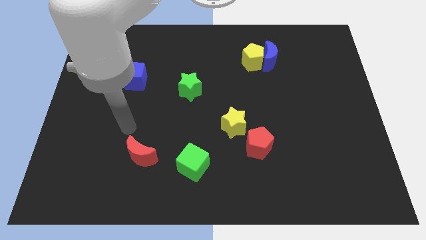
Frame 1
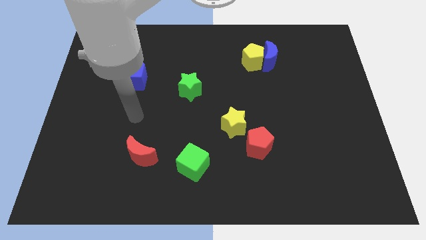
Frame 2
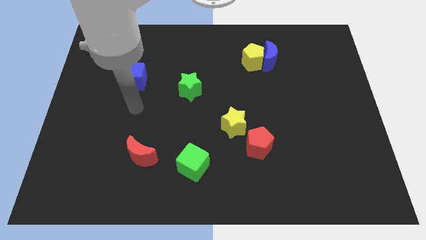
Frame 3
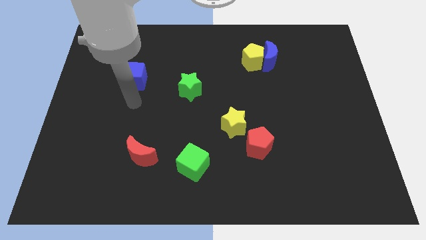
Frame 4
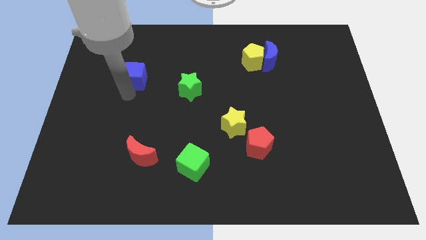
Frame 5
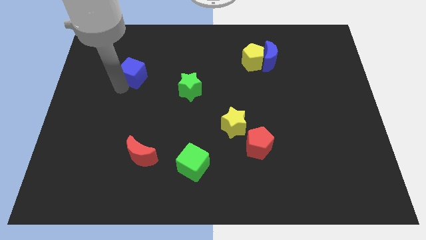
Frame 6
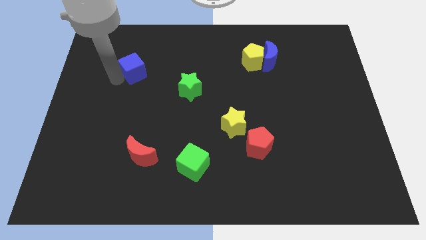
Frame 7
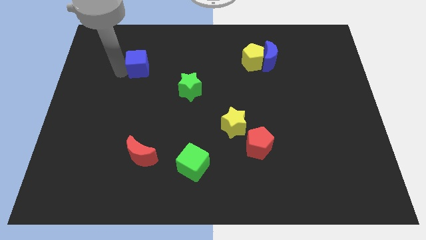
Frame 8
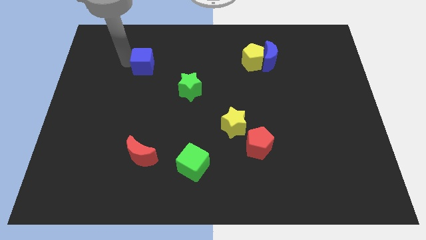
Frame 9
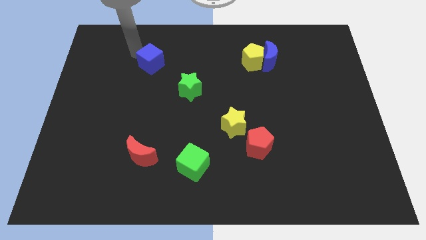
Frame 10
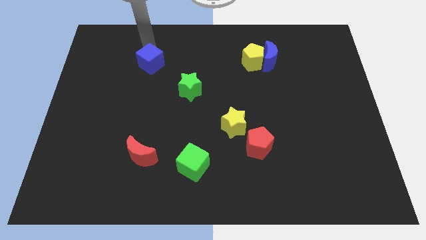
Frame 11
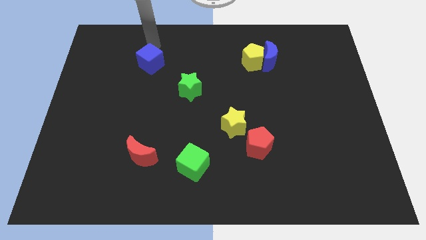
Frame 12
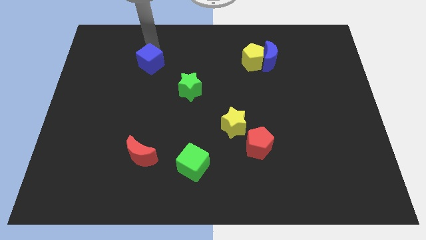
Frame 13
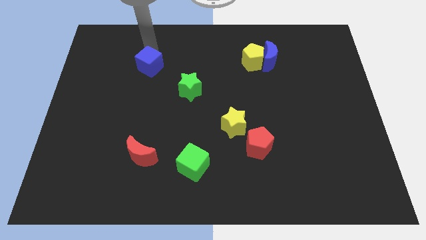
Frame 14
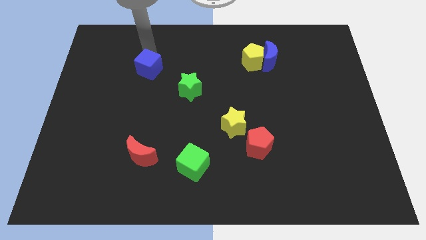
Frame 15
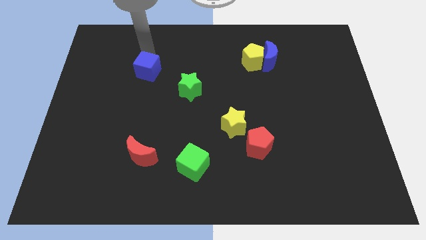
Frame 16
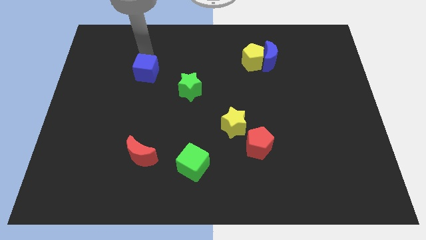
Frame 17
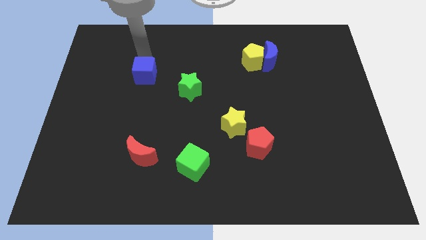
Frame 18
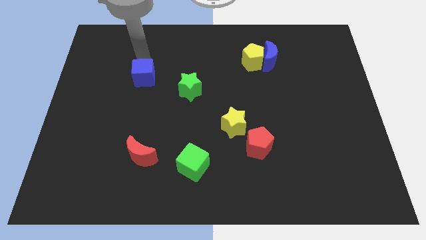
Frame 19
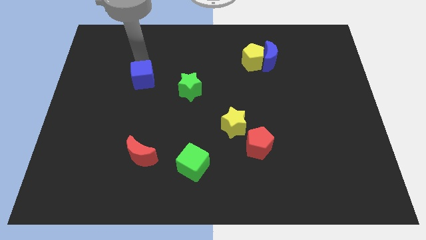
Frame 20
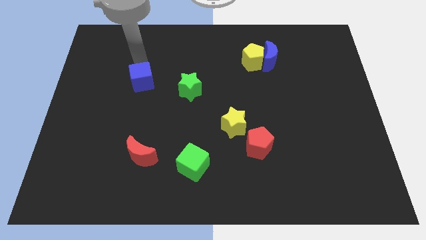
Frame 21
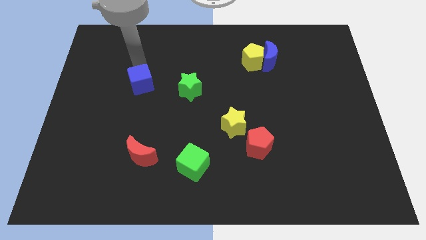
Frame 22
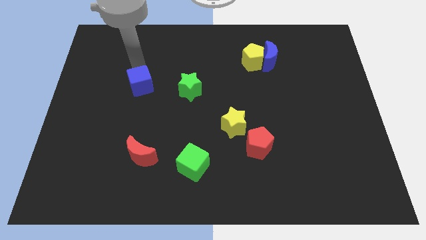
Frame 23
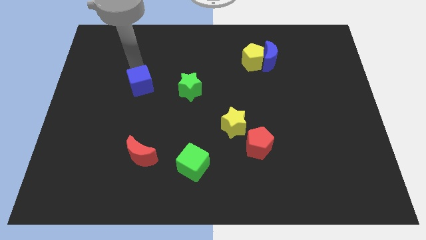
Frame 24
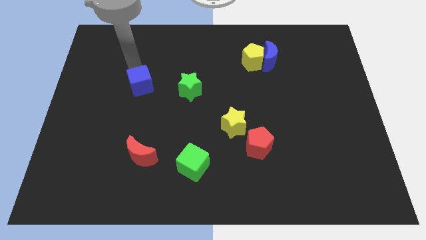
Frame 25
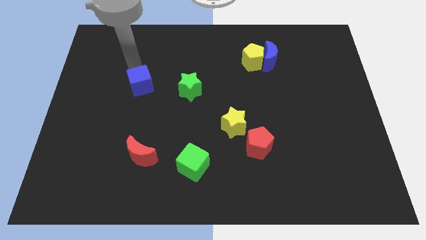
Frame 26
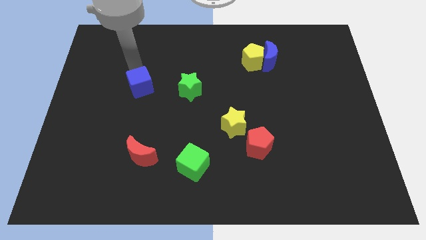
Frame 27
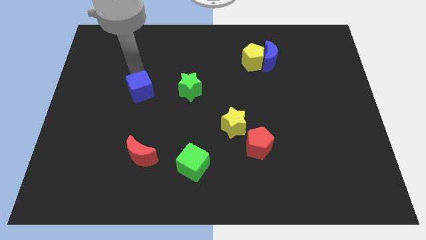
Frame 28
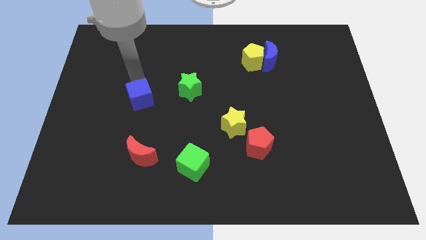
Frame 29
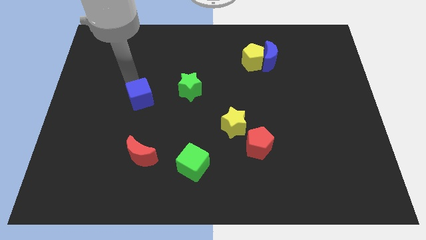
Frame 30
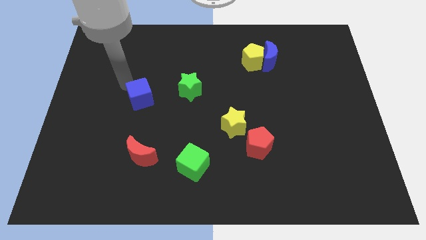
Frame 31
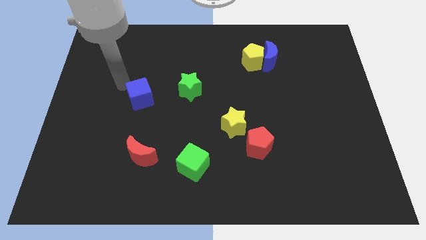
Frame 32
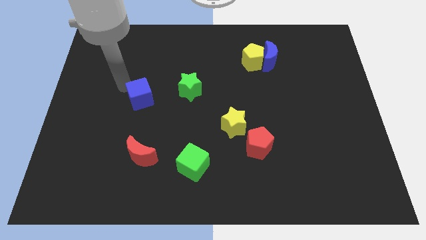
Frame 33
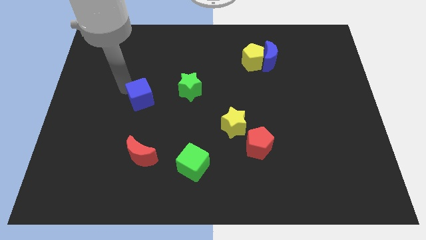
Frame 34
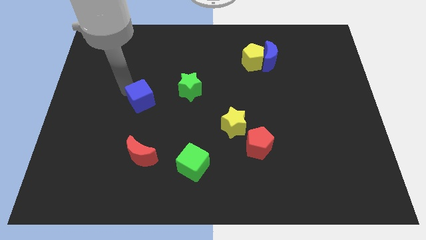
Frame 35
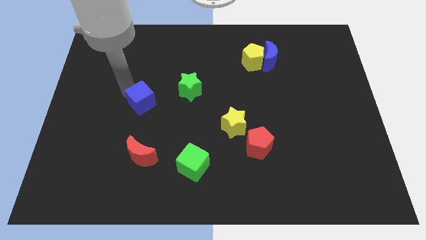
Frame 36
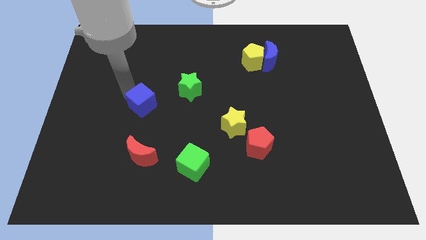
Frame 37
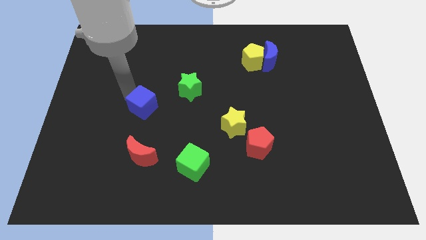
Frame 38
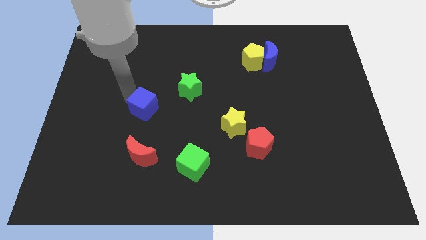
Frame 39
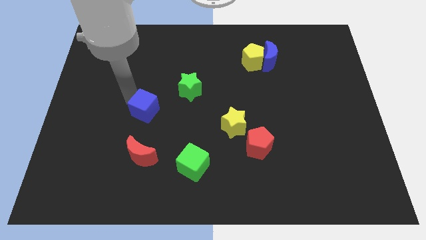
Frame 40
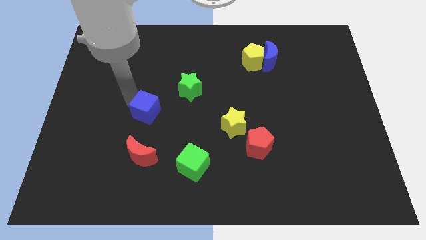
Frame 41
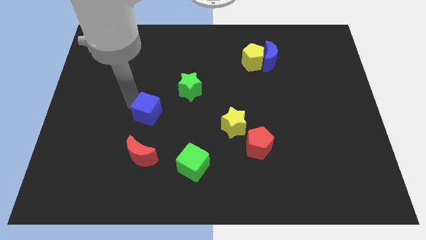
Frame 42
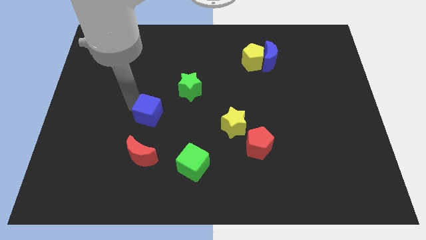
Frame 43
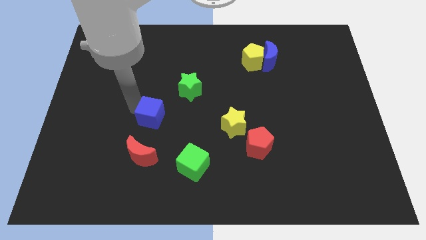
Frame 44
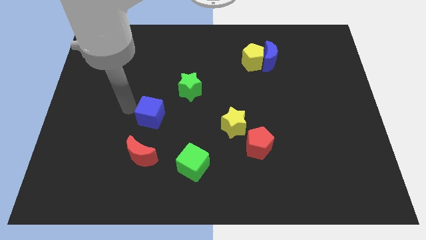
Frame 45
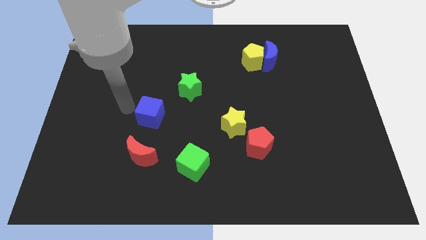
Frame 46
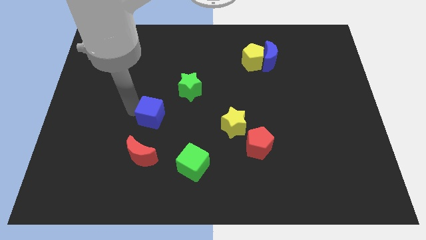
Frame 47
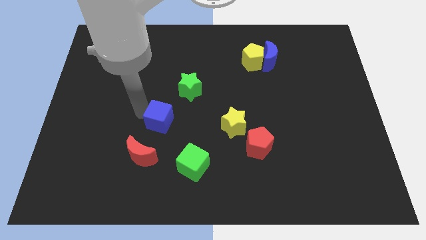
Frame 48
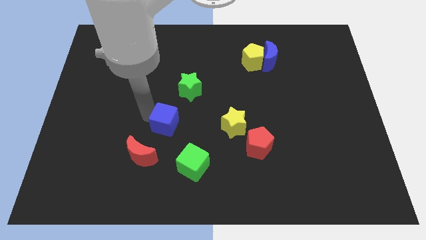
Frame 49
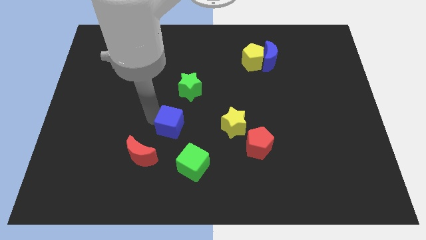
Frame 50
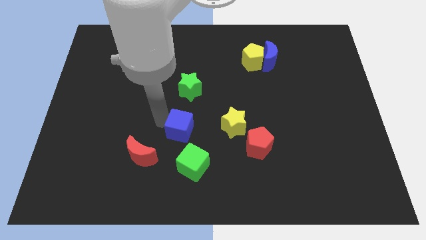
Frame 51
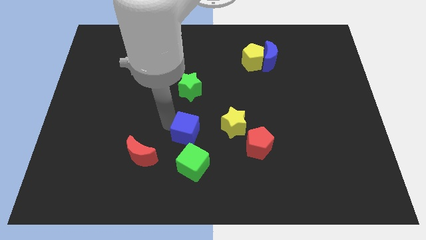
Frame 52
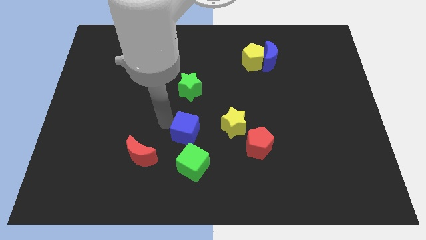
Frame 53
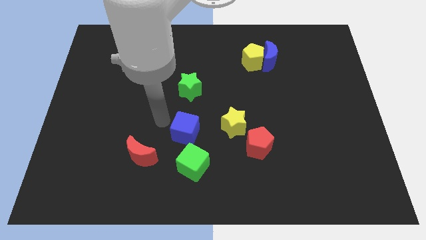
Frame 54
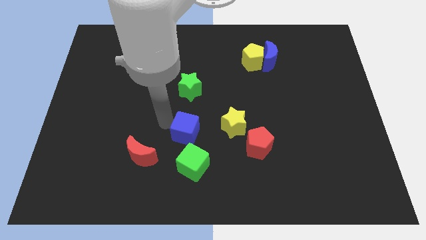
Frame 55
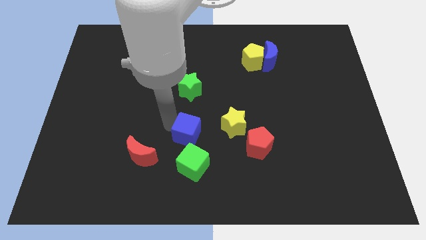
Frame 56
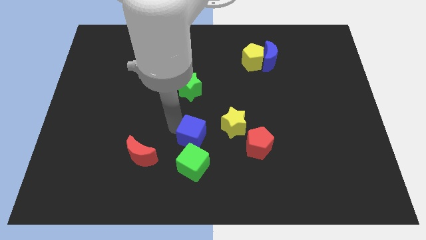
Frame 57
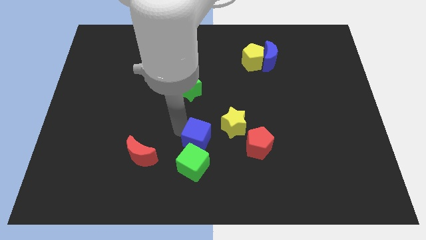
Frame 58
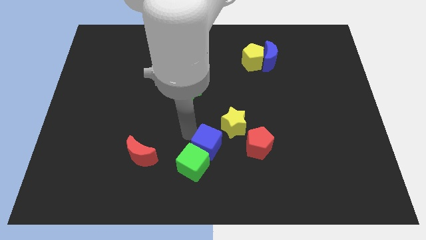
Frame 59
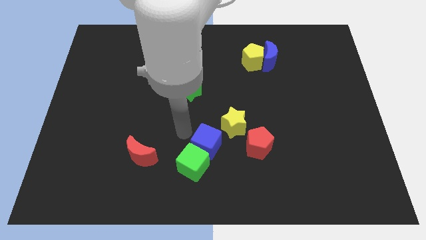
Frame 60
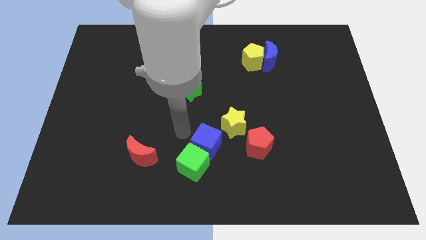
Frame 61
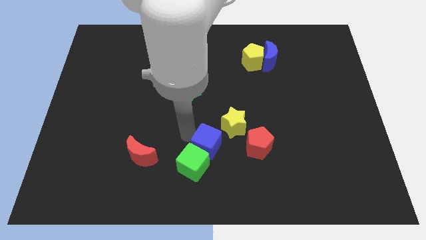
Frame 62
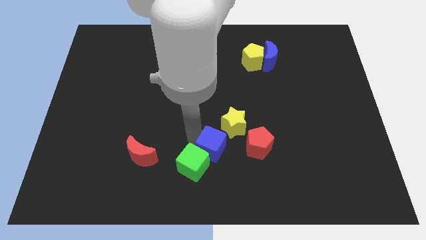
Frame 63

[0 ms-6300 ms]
move the blue cube right of the green cube

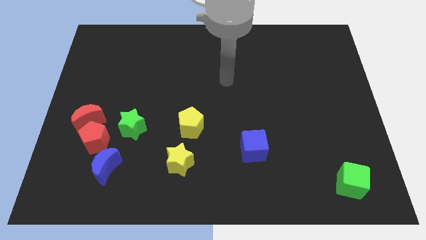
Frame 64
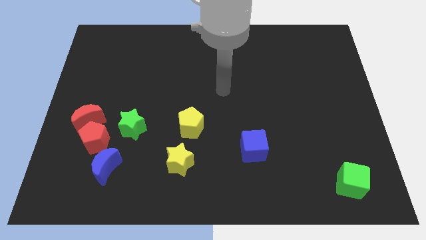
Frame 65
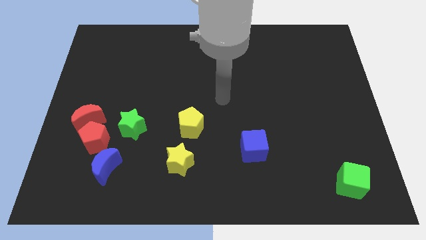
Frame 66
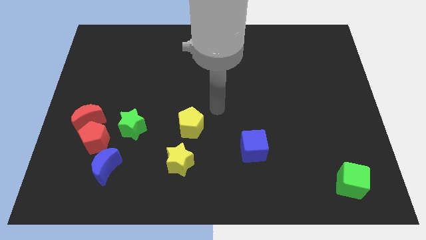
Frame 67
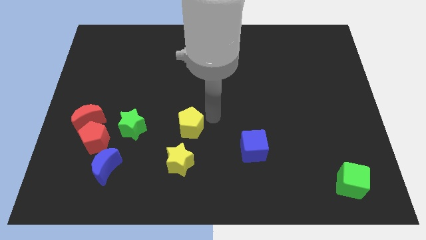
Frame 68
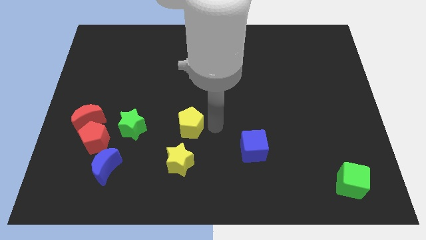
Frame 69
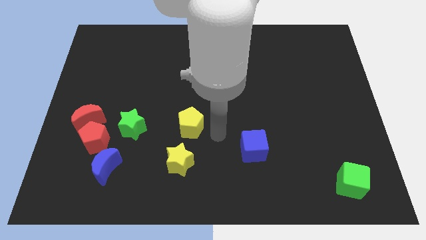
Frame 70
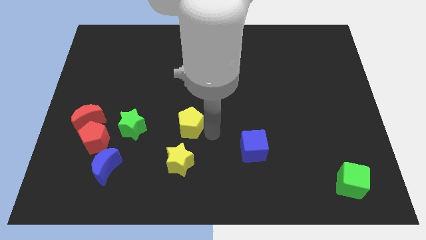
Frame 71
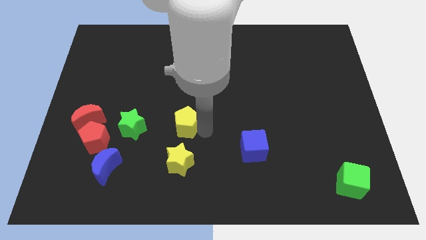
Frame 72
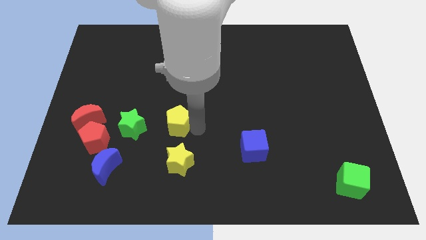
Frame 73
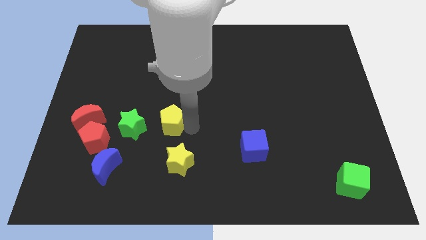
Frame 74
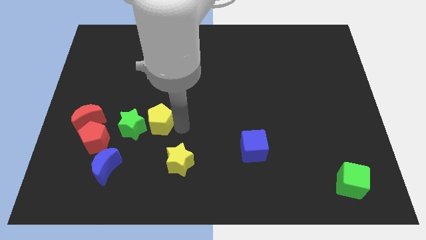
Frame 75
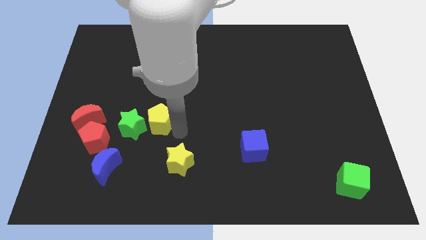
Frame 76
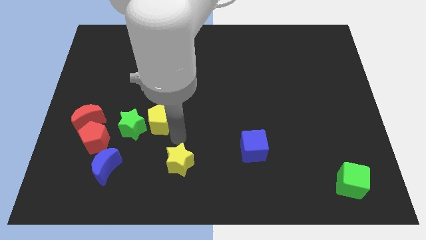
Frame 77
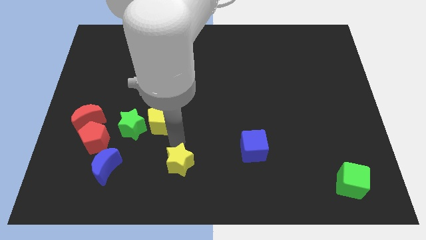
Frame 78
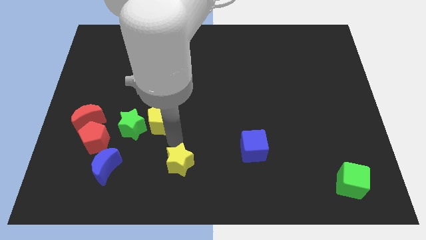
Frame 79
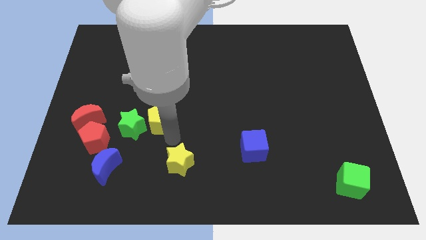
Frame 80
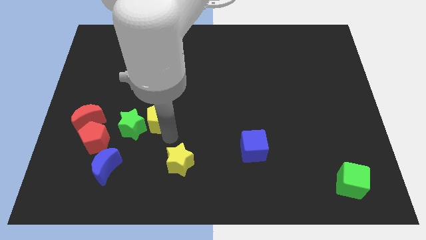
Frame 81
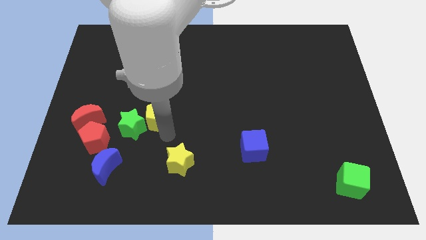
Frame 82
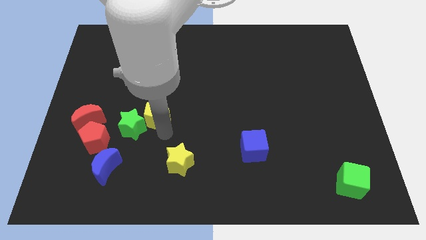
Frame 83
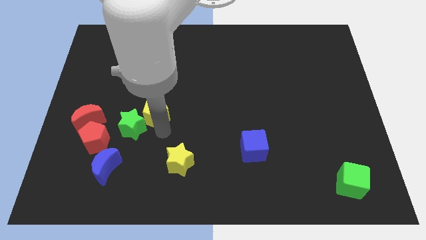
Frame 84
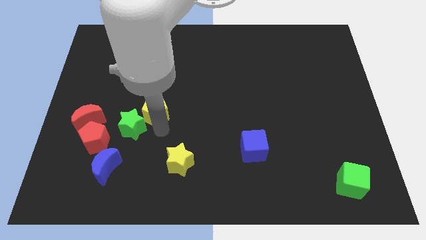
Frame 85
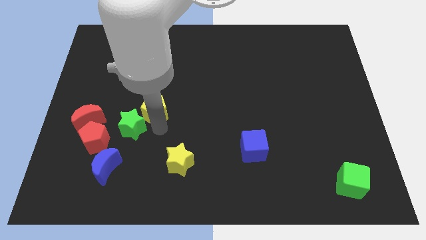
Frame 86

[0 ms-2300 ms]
move the yellow pentagon above the green star
